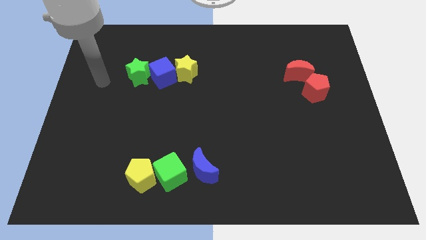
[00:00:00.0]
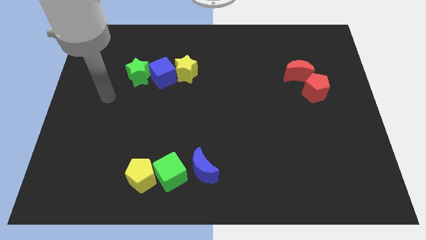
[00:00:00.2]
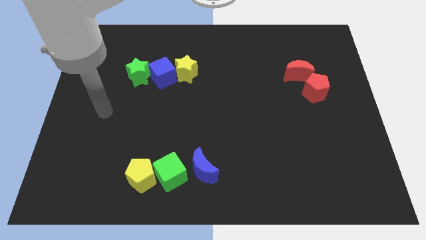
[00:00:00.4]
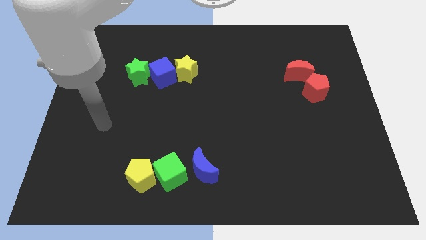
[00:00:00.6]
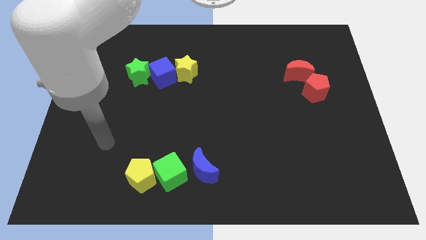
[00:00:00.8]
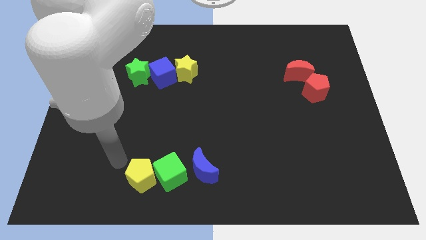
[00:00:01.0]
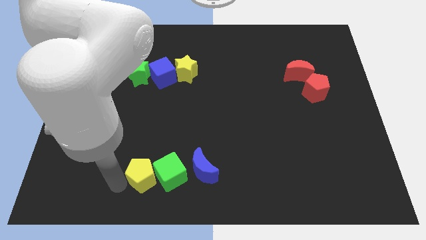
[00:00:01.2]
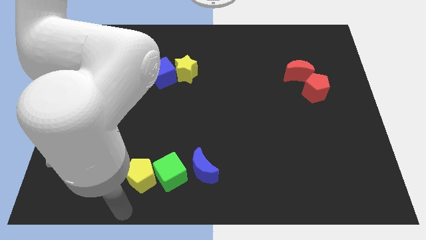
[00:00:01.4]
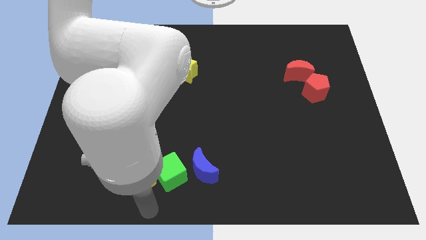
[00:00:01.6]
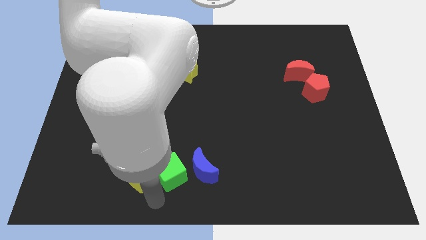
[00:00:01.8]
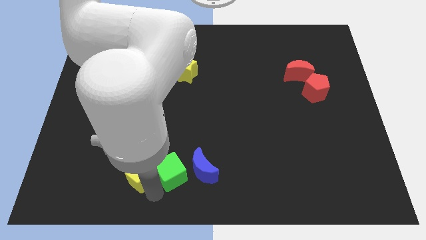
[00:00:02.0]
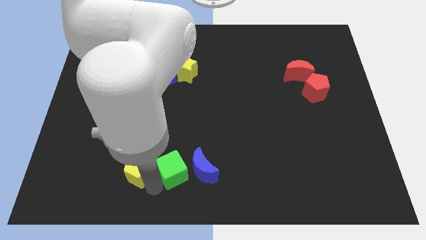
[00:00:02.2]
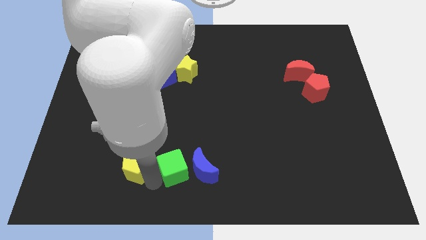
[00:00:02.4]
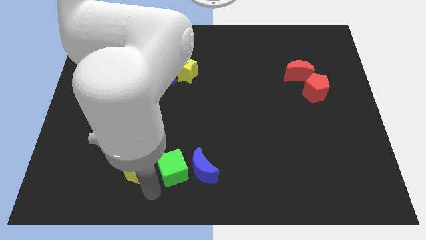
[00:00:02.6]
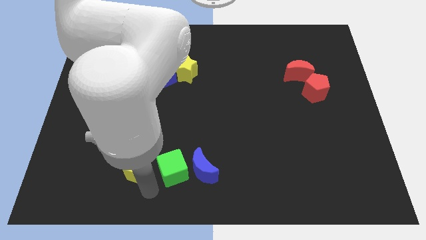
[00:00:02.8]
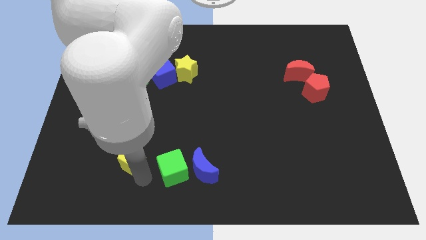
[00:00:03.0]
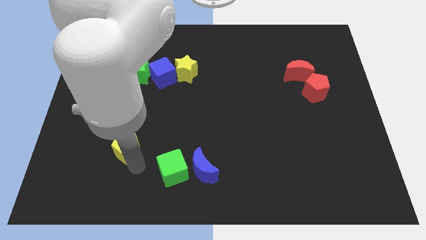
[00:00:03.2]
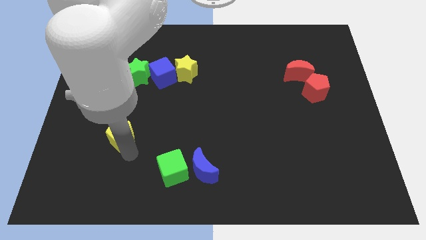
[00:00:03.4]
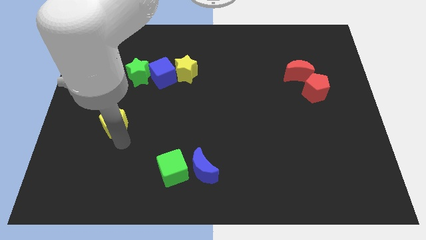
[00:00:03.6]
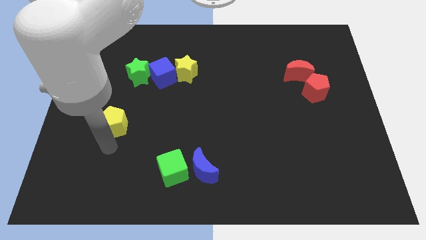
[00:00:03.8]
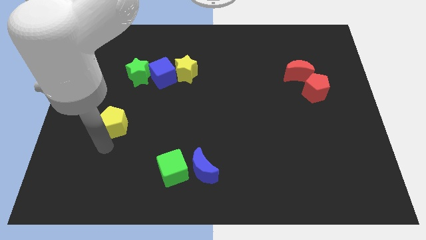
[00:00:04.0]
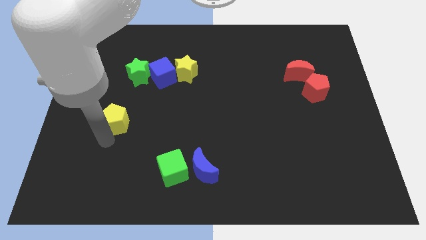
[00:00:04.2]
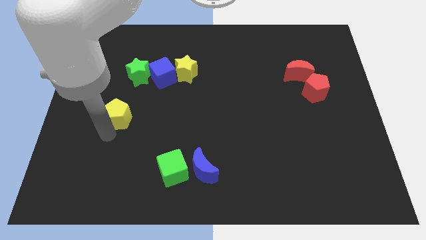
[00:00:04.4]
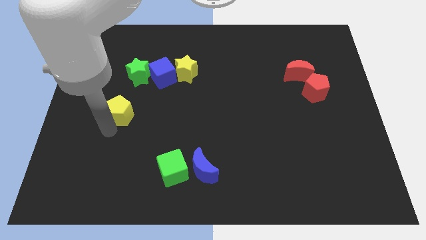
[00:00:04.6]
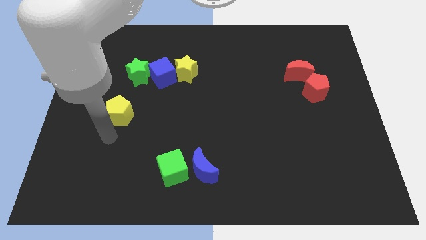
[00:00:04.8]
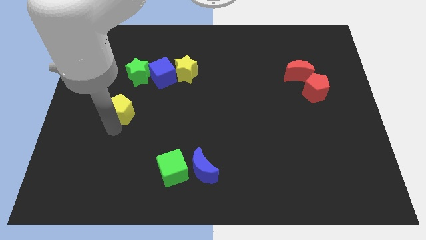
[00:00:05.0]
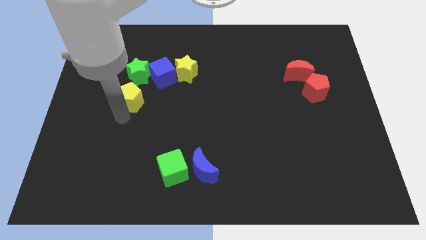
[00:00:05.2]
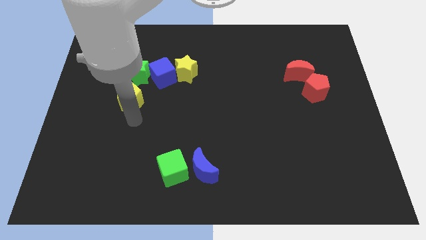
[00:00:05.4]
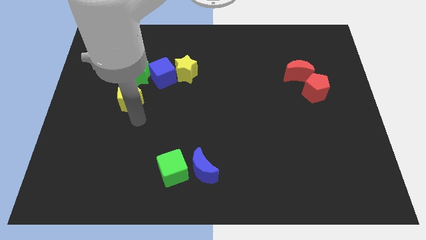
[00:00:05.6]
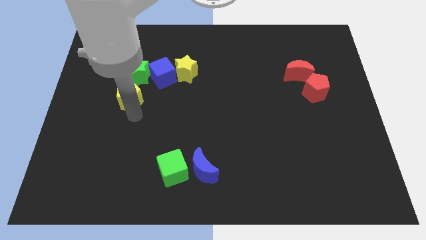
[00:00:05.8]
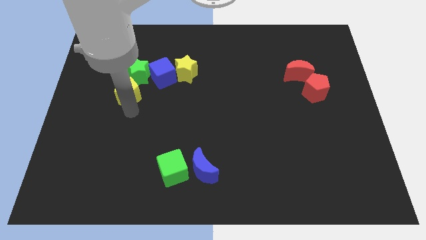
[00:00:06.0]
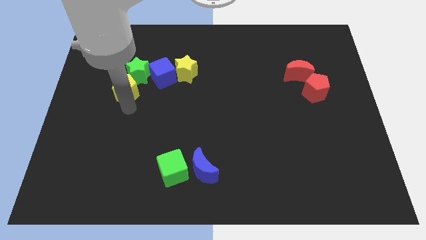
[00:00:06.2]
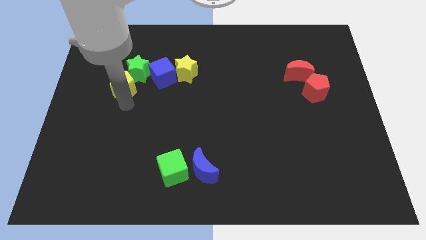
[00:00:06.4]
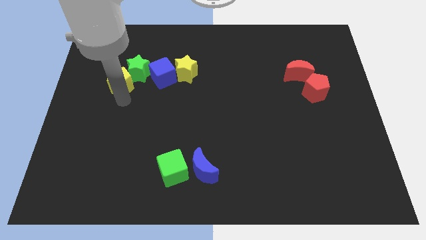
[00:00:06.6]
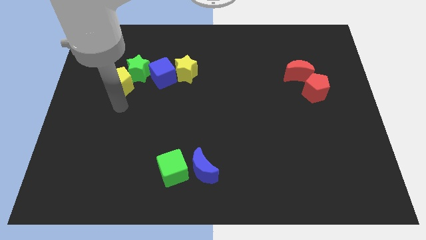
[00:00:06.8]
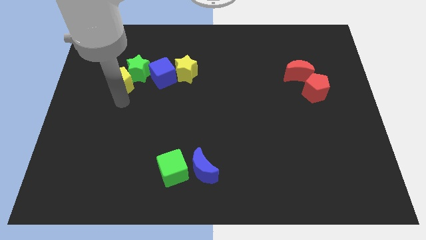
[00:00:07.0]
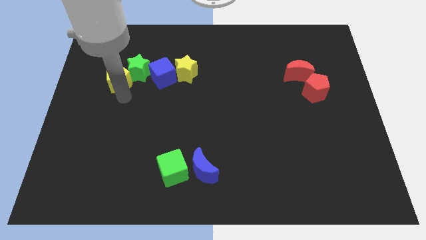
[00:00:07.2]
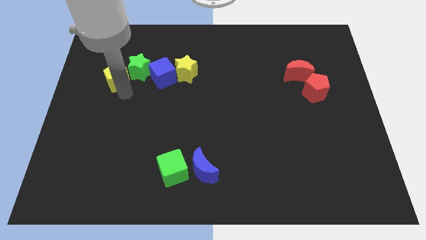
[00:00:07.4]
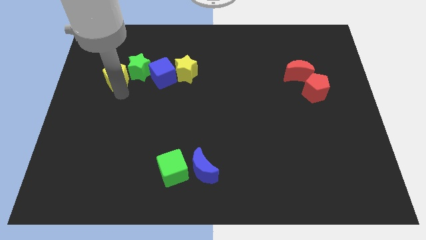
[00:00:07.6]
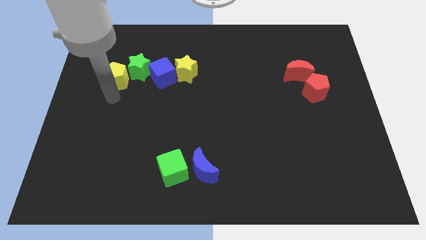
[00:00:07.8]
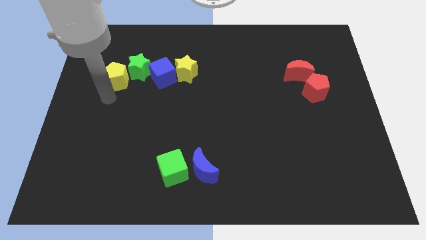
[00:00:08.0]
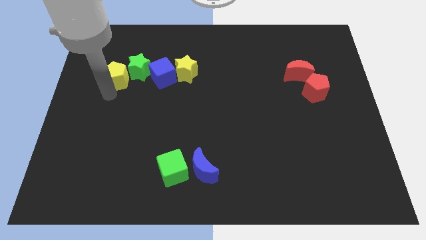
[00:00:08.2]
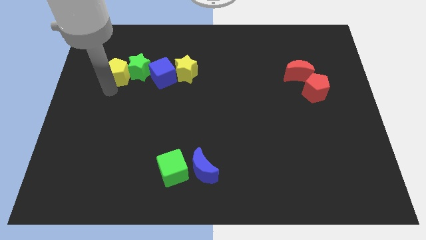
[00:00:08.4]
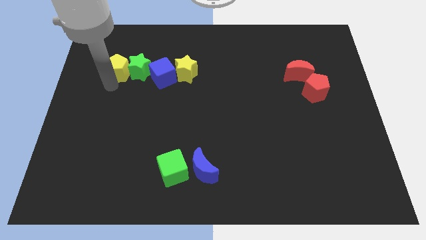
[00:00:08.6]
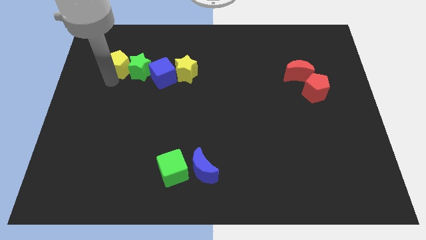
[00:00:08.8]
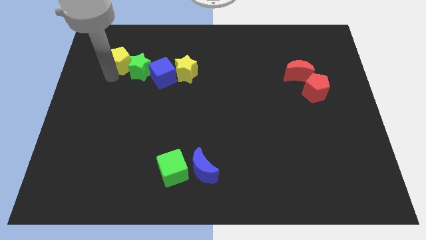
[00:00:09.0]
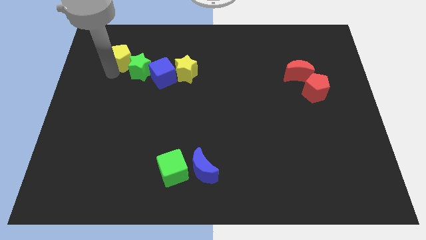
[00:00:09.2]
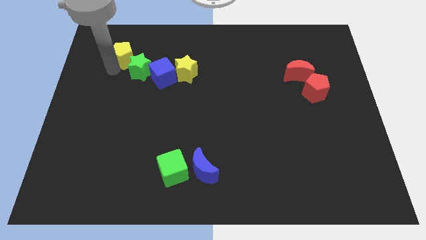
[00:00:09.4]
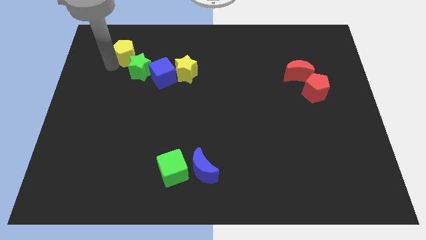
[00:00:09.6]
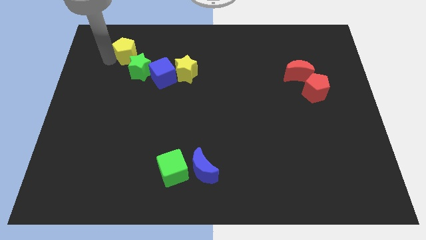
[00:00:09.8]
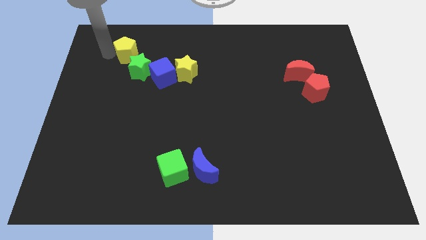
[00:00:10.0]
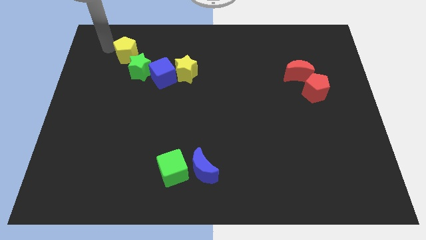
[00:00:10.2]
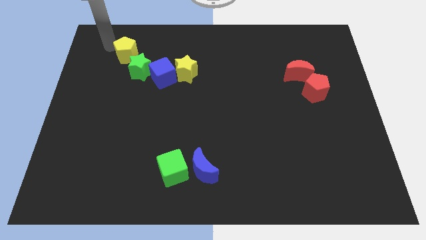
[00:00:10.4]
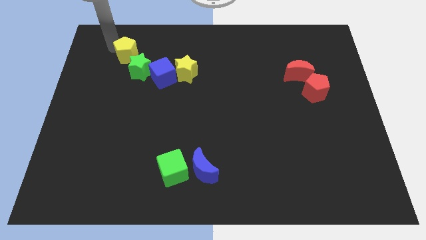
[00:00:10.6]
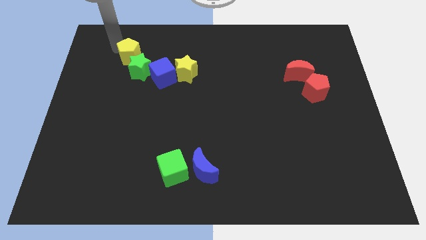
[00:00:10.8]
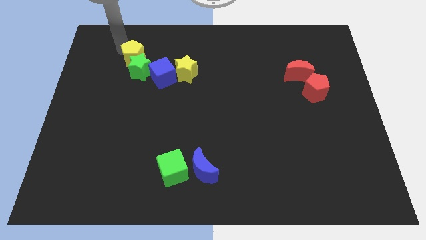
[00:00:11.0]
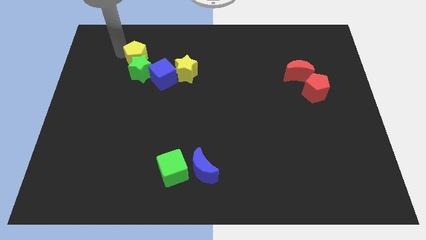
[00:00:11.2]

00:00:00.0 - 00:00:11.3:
push the yellow pentagon to the top right of the green star
